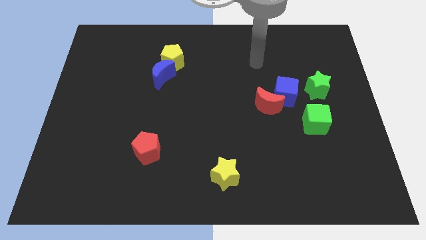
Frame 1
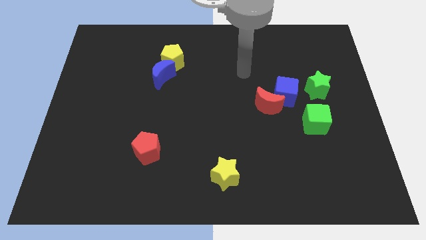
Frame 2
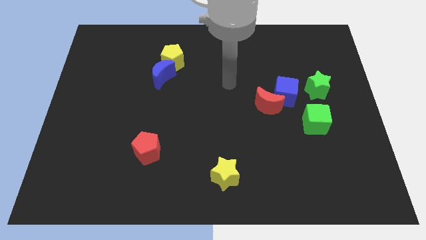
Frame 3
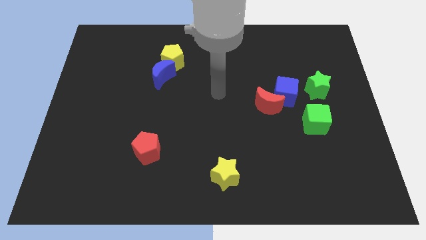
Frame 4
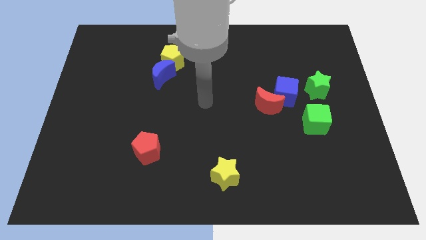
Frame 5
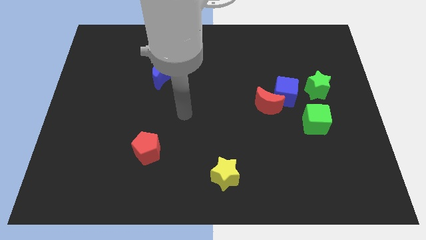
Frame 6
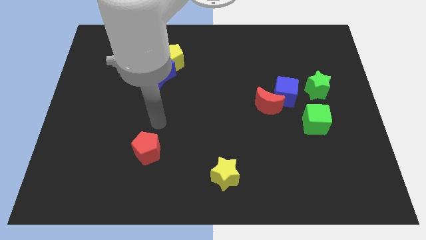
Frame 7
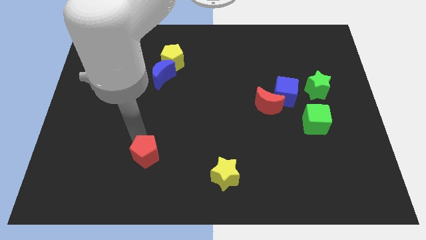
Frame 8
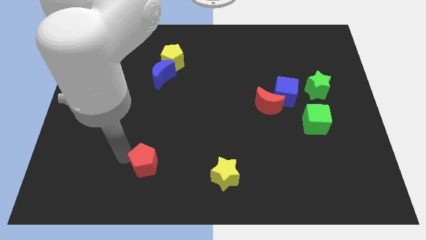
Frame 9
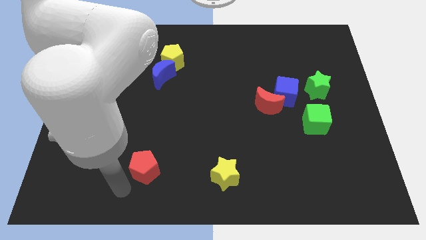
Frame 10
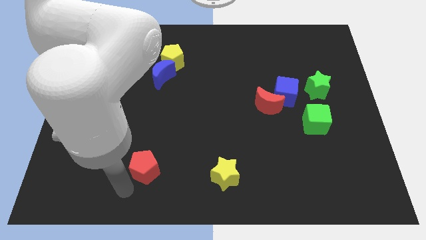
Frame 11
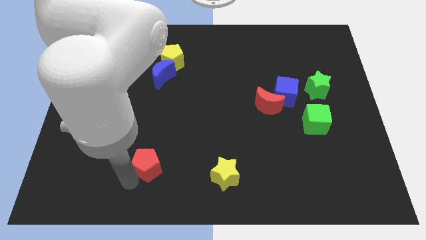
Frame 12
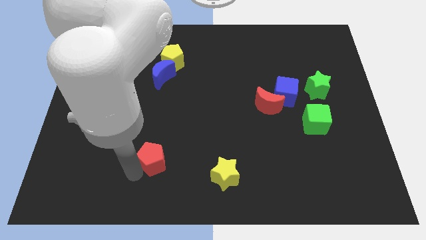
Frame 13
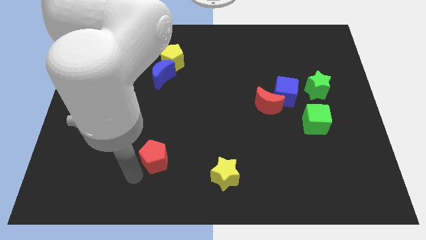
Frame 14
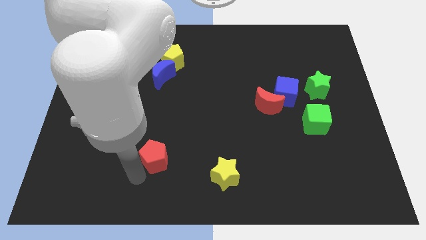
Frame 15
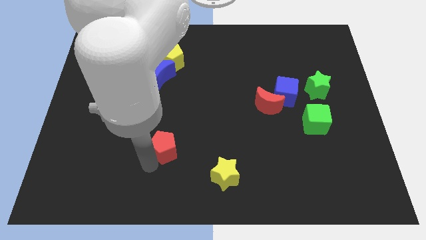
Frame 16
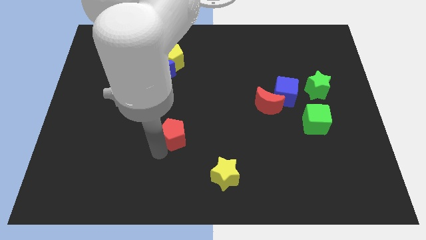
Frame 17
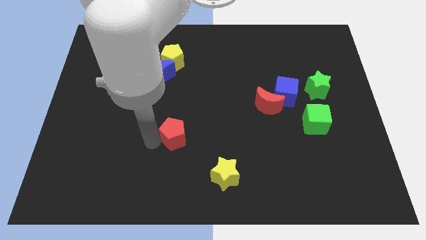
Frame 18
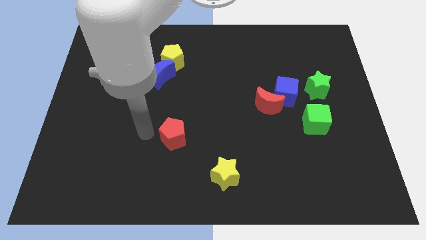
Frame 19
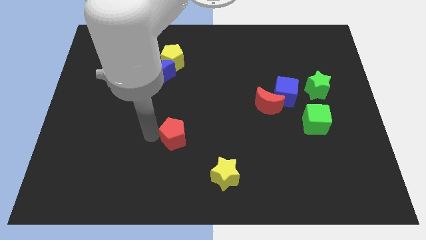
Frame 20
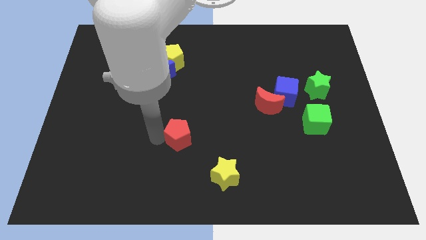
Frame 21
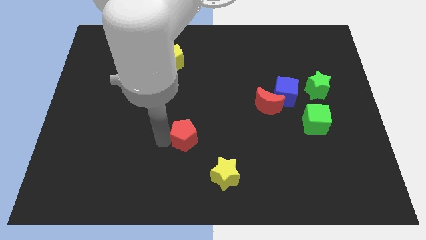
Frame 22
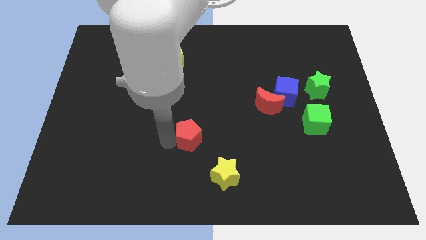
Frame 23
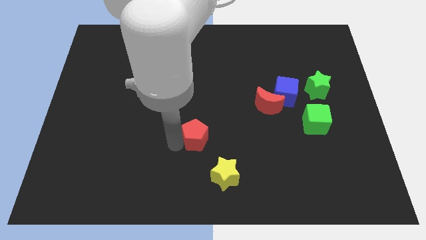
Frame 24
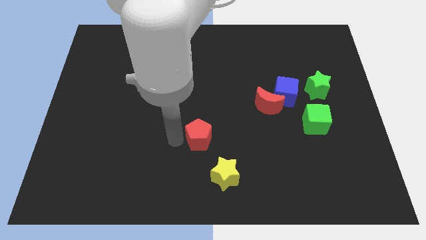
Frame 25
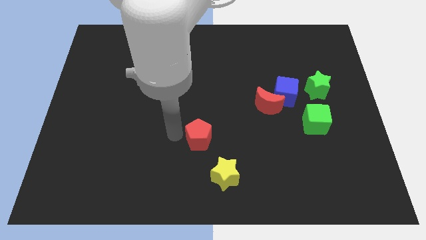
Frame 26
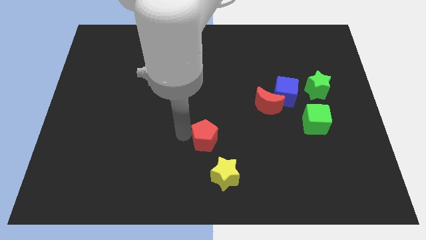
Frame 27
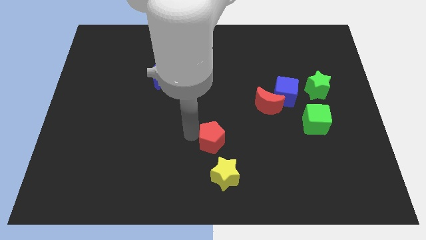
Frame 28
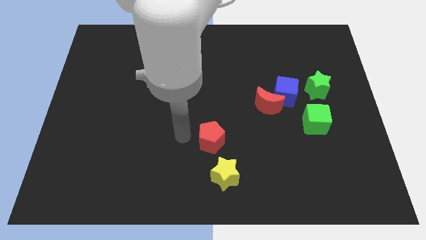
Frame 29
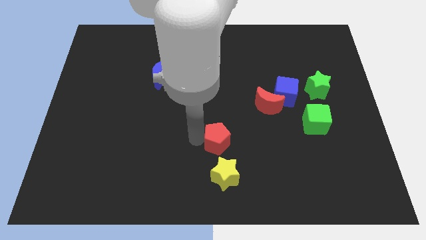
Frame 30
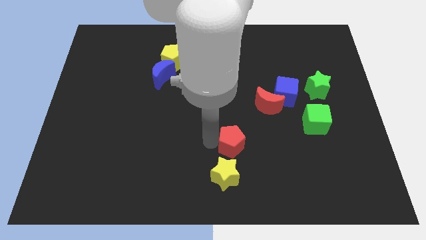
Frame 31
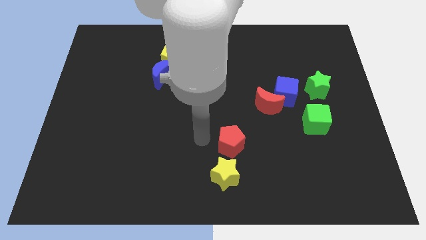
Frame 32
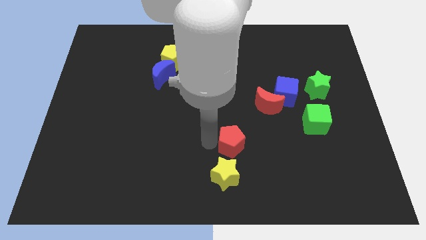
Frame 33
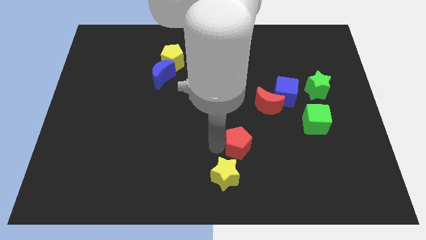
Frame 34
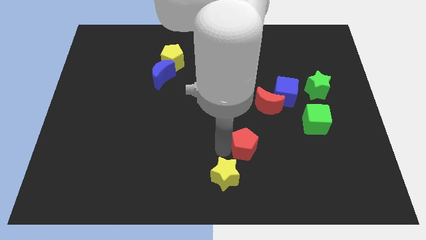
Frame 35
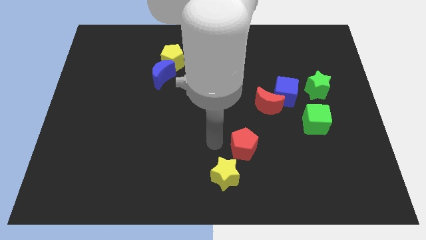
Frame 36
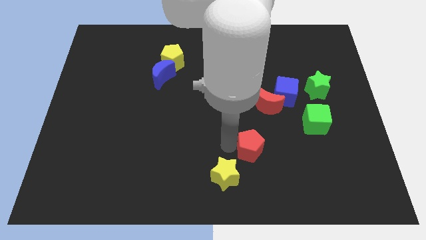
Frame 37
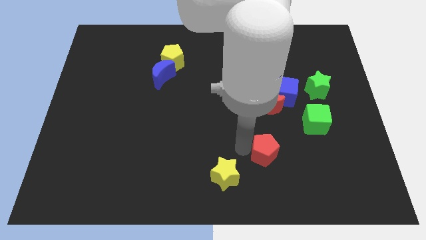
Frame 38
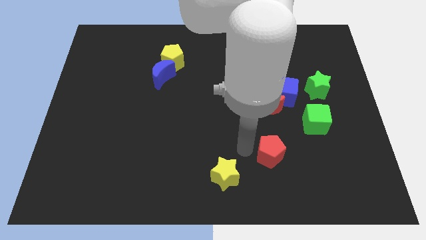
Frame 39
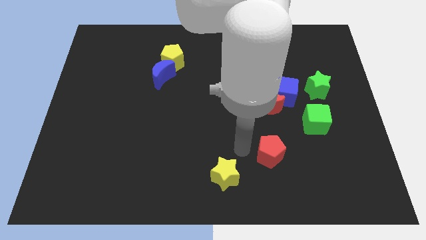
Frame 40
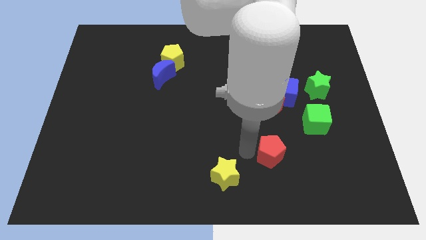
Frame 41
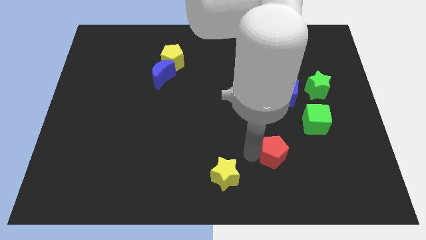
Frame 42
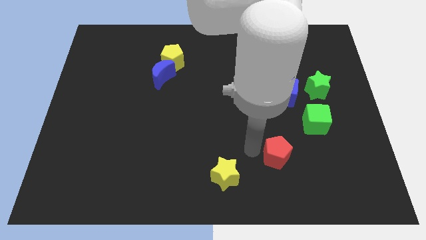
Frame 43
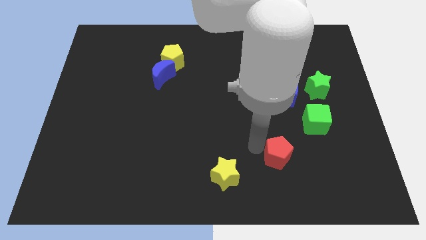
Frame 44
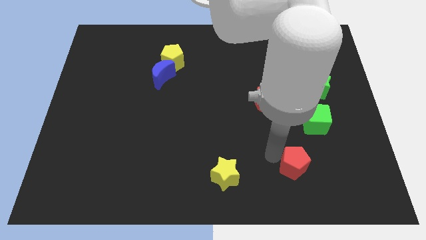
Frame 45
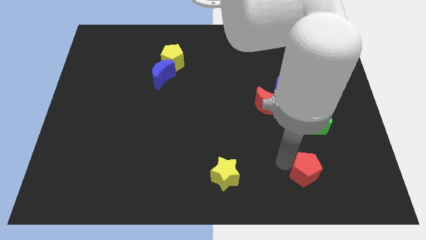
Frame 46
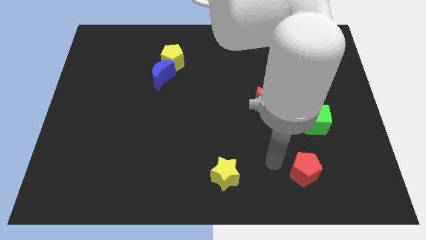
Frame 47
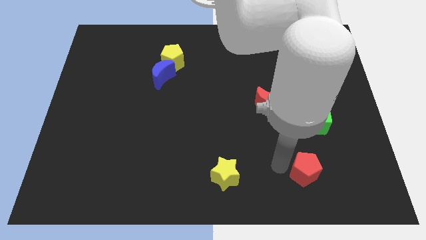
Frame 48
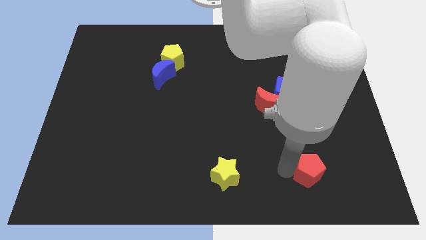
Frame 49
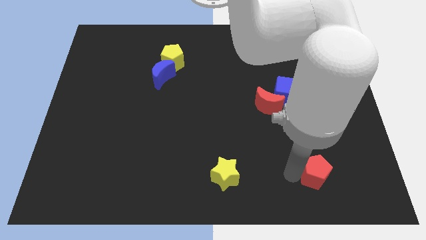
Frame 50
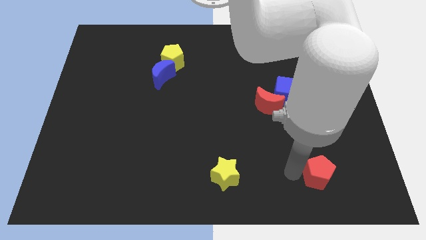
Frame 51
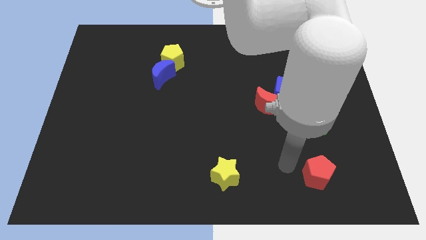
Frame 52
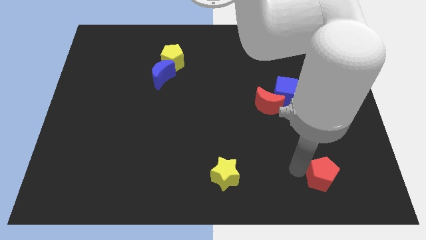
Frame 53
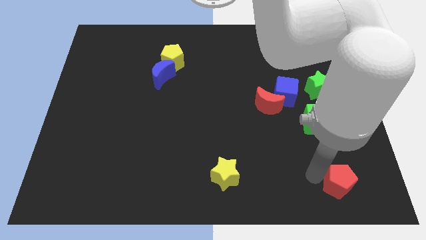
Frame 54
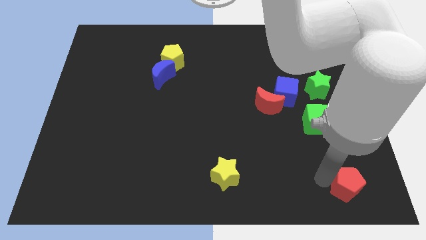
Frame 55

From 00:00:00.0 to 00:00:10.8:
move the red pentagon to the bottom right corner

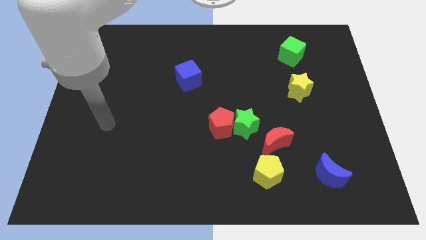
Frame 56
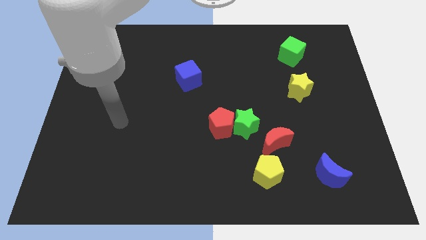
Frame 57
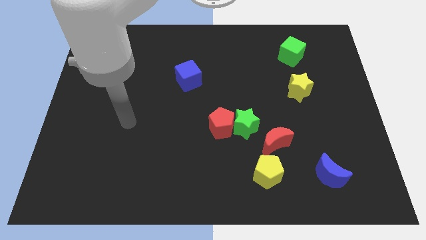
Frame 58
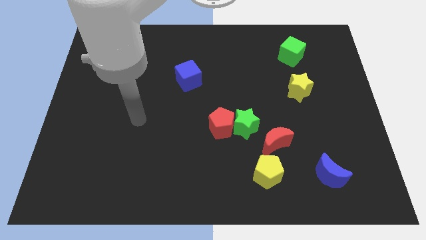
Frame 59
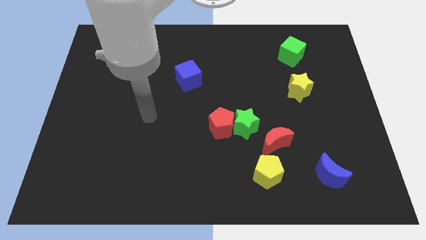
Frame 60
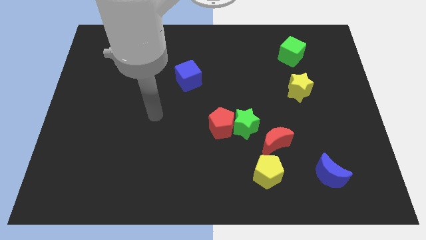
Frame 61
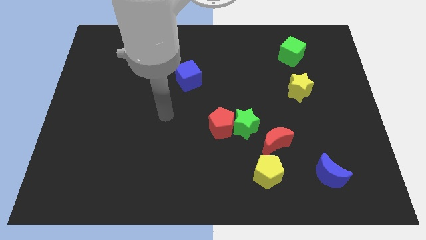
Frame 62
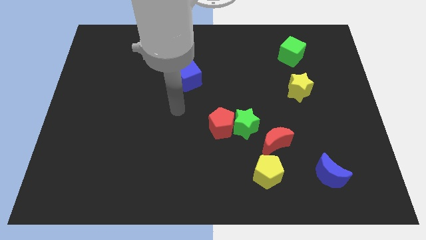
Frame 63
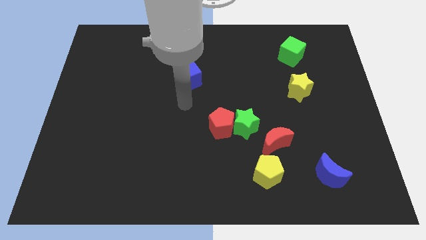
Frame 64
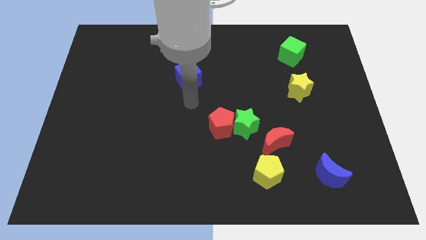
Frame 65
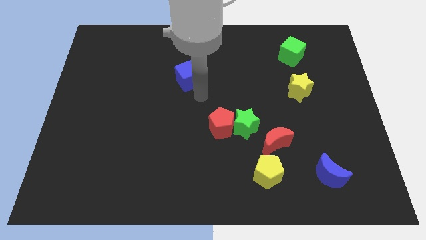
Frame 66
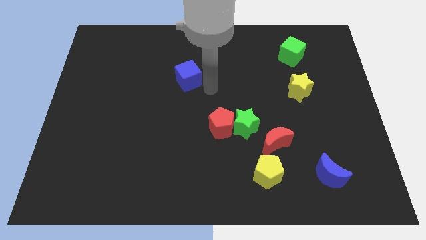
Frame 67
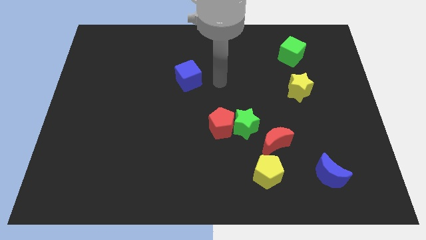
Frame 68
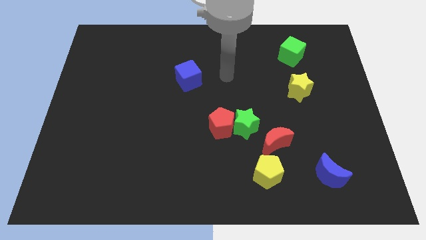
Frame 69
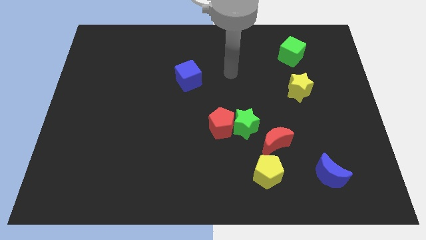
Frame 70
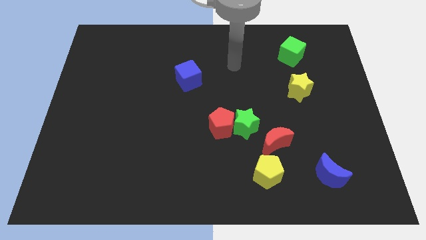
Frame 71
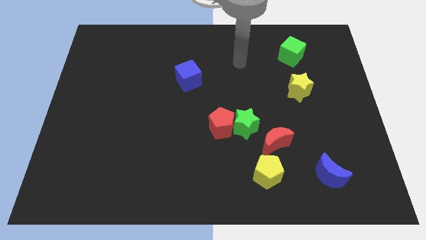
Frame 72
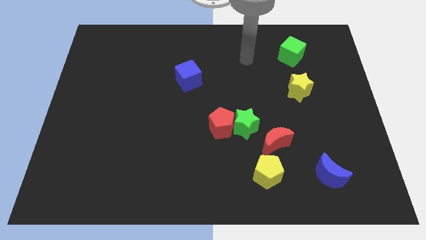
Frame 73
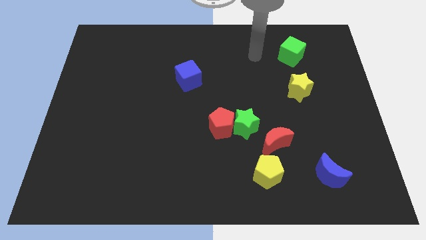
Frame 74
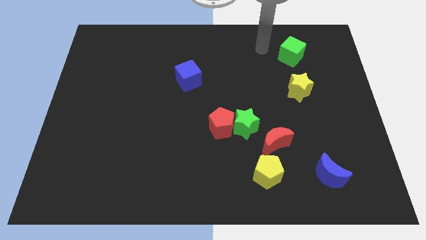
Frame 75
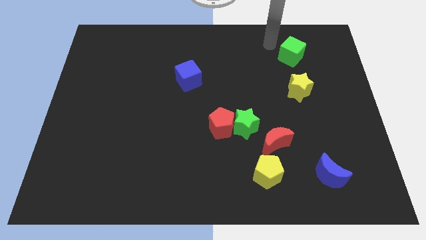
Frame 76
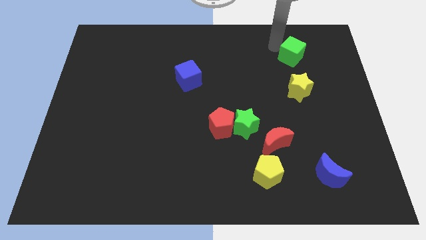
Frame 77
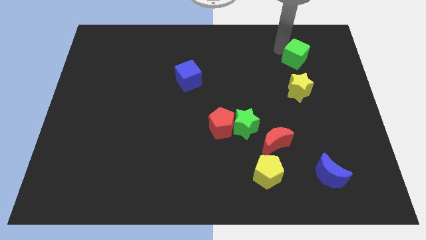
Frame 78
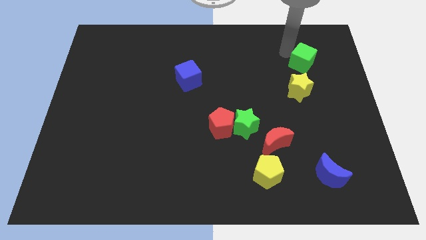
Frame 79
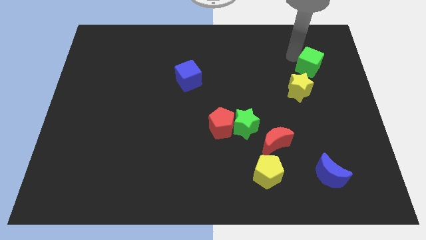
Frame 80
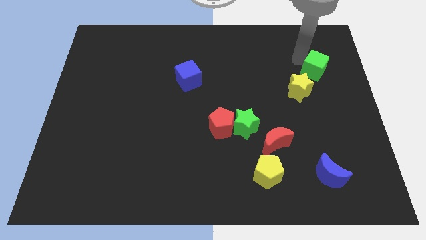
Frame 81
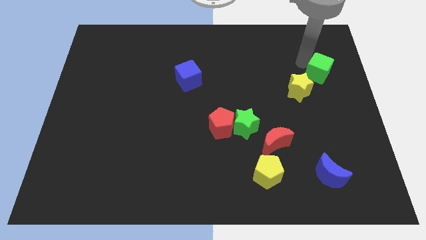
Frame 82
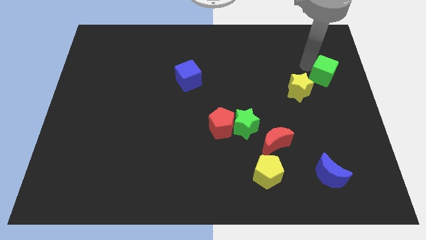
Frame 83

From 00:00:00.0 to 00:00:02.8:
put the green cube to the right side of the board
